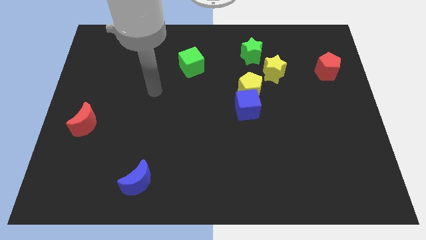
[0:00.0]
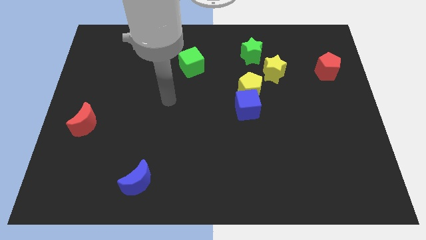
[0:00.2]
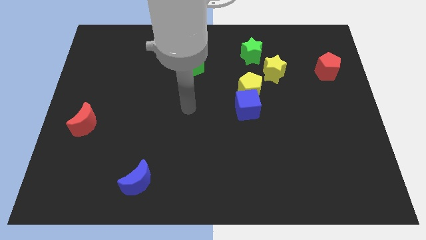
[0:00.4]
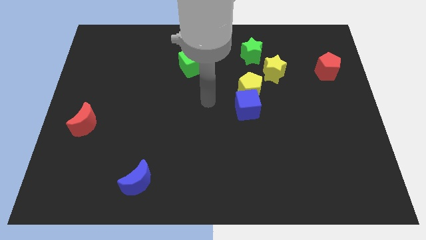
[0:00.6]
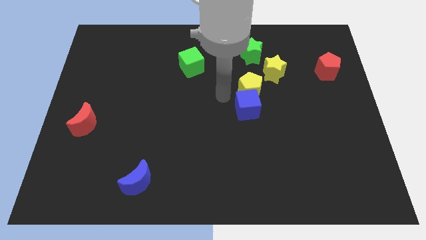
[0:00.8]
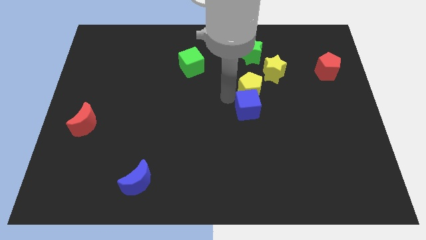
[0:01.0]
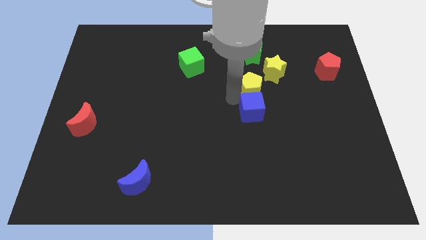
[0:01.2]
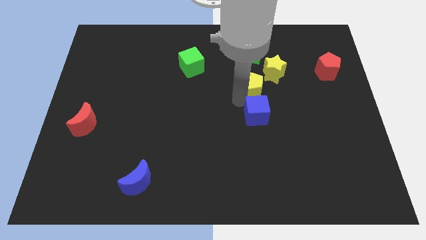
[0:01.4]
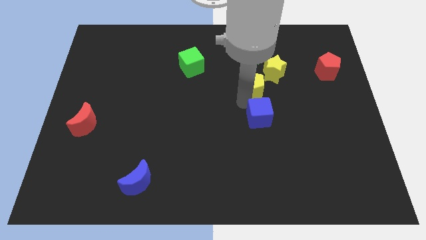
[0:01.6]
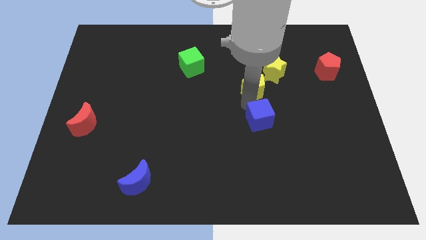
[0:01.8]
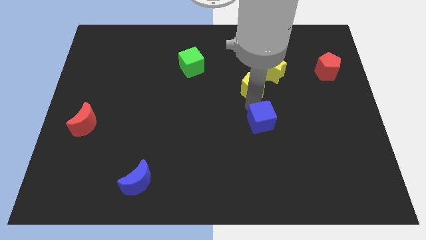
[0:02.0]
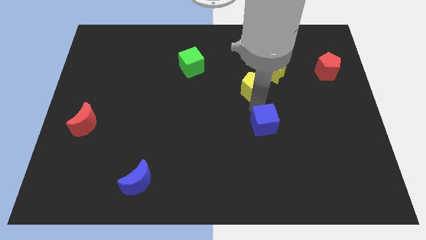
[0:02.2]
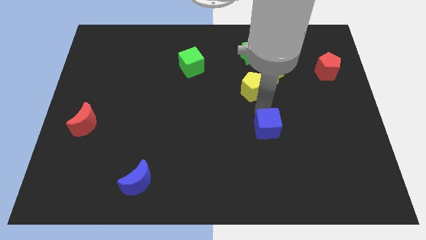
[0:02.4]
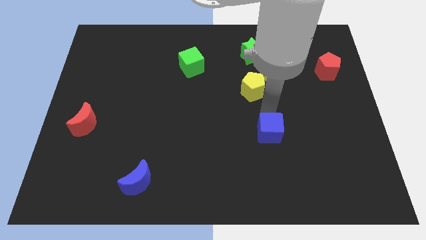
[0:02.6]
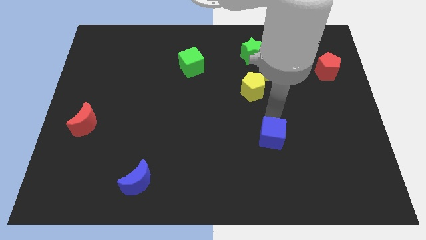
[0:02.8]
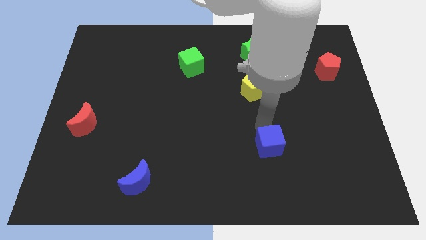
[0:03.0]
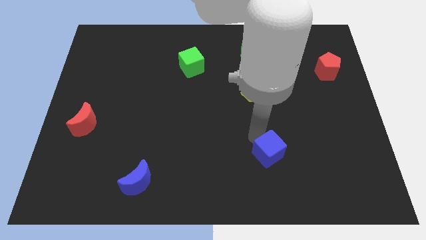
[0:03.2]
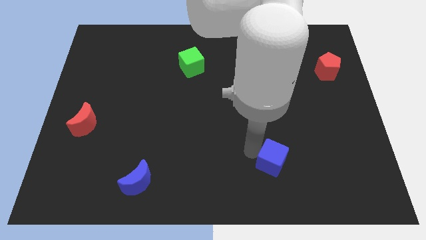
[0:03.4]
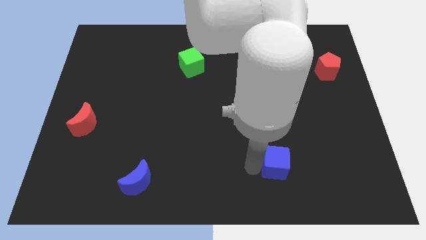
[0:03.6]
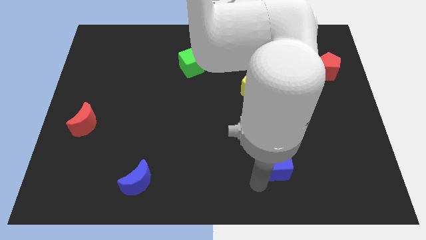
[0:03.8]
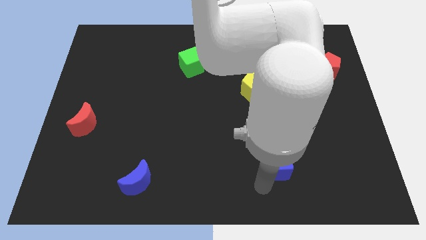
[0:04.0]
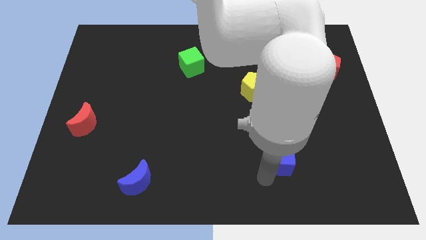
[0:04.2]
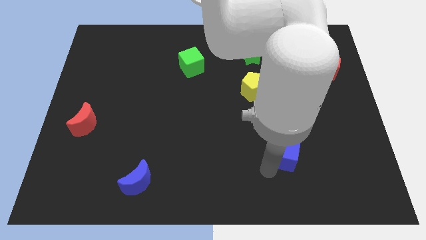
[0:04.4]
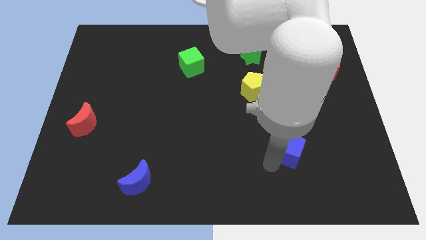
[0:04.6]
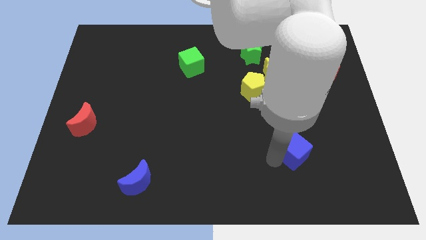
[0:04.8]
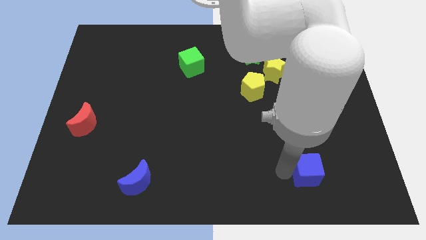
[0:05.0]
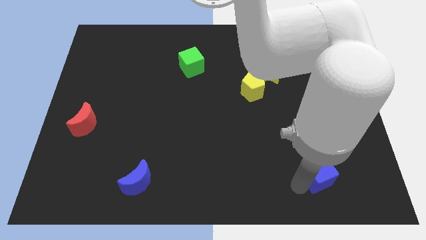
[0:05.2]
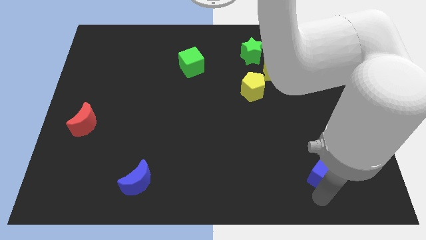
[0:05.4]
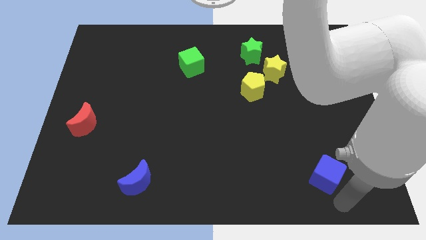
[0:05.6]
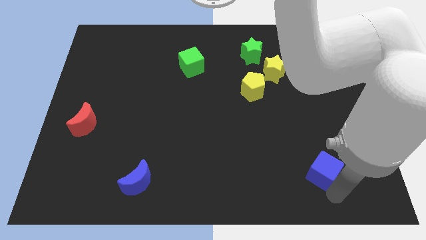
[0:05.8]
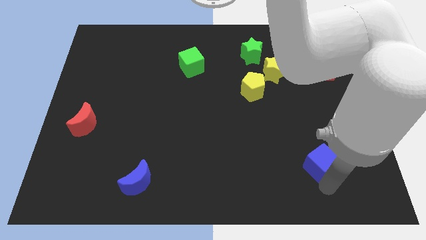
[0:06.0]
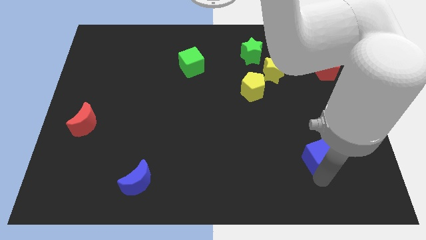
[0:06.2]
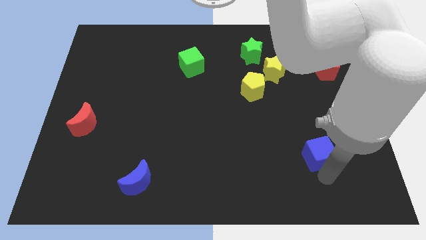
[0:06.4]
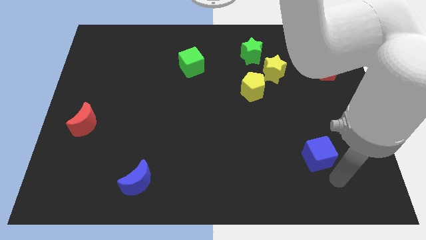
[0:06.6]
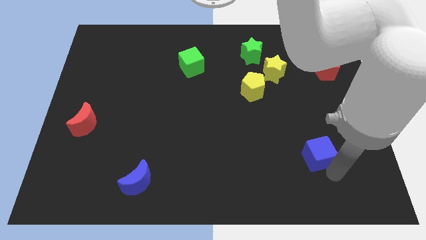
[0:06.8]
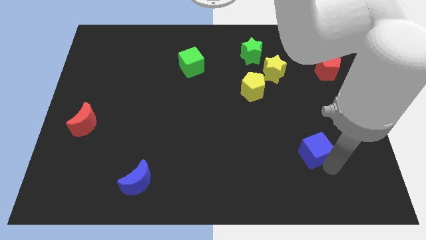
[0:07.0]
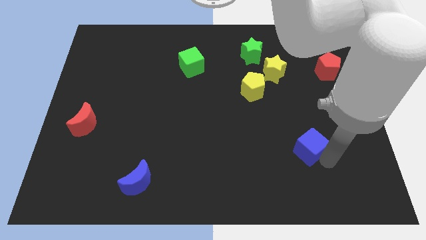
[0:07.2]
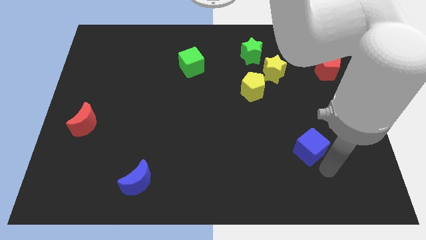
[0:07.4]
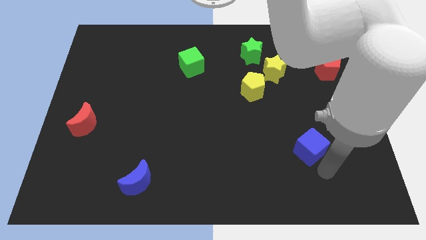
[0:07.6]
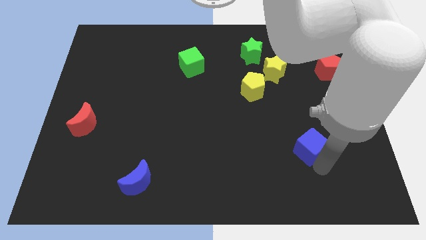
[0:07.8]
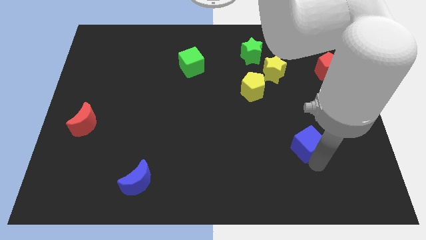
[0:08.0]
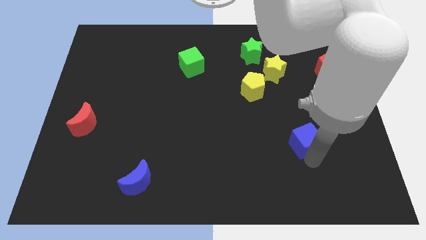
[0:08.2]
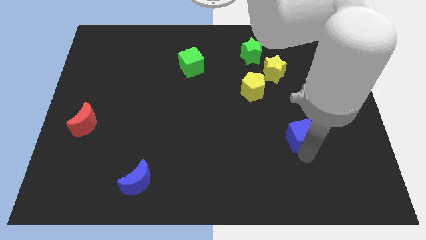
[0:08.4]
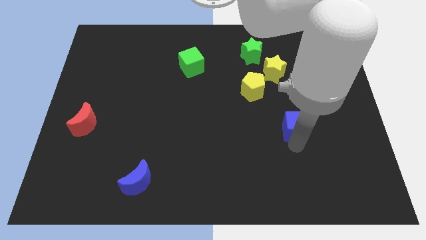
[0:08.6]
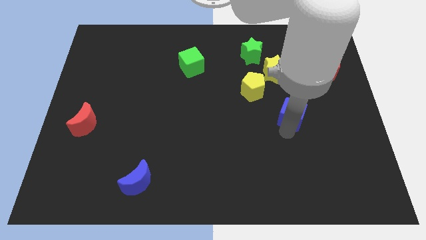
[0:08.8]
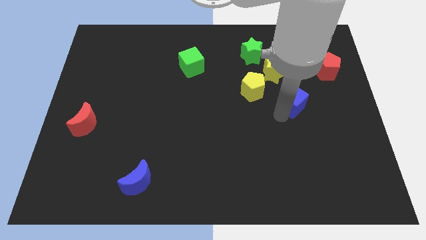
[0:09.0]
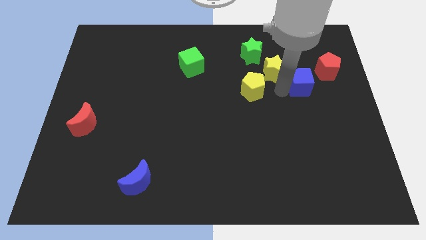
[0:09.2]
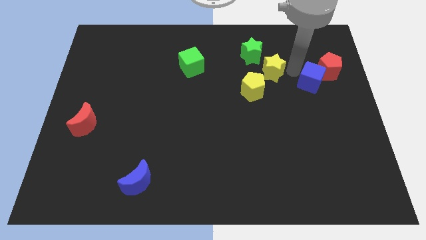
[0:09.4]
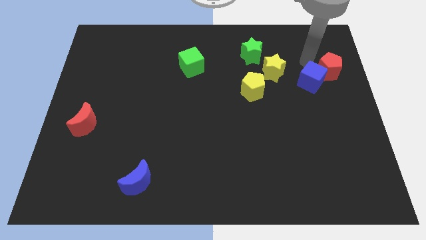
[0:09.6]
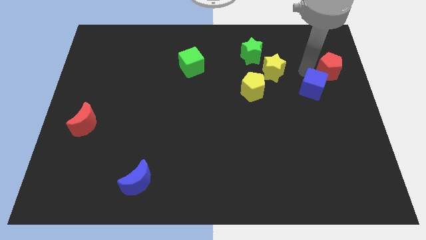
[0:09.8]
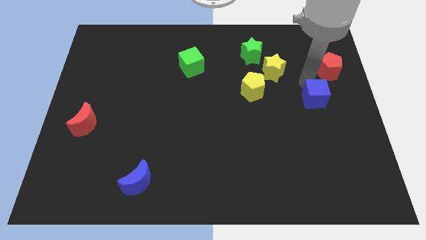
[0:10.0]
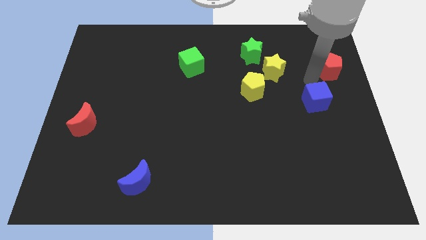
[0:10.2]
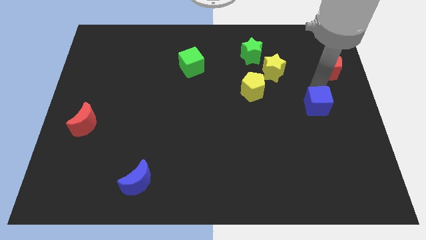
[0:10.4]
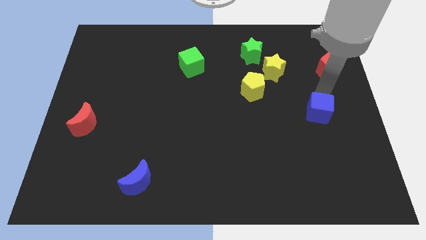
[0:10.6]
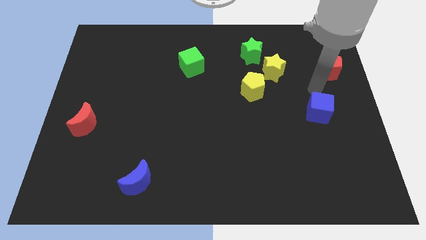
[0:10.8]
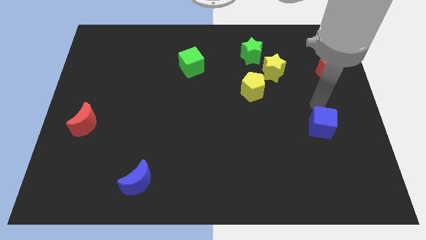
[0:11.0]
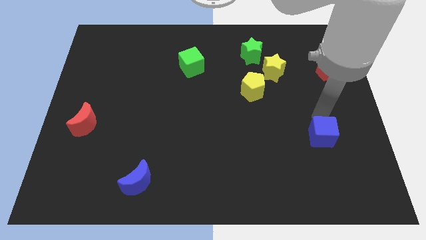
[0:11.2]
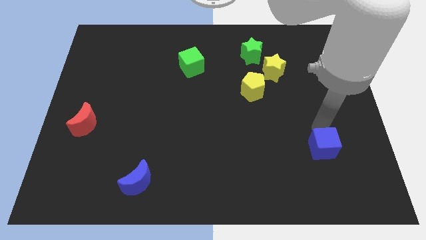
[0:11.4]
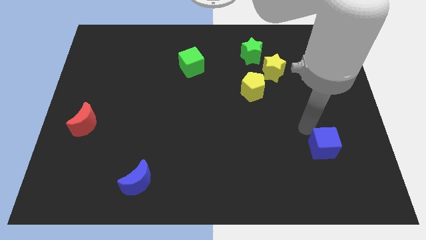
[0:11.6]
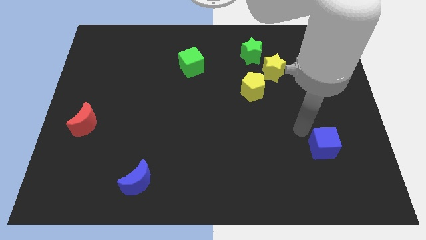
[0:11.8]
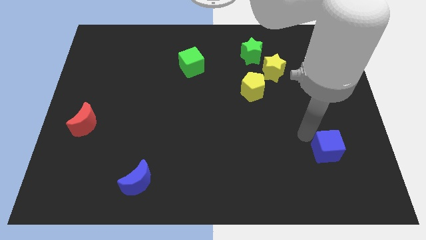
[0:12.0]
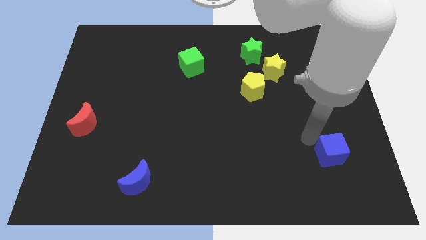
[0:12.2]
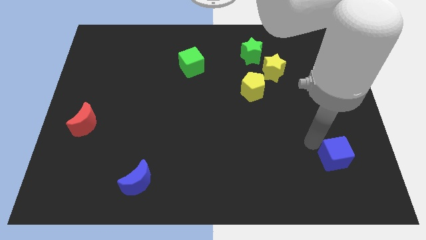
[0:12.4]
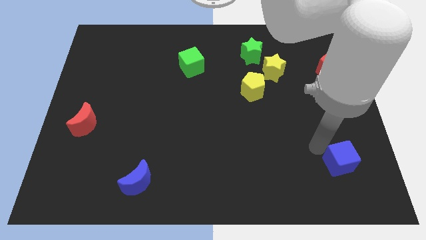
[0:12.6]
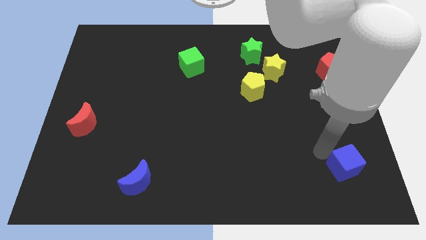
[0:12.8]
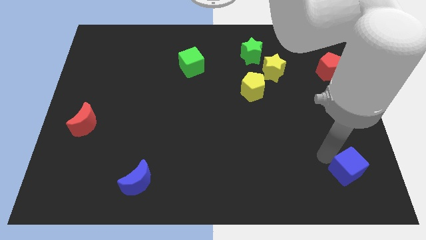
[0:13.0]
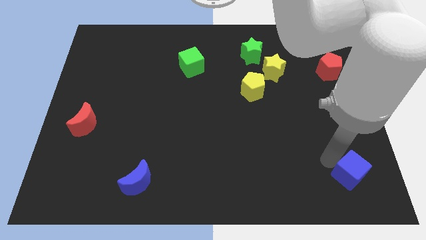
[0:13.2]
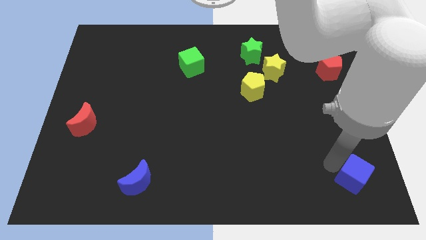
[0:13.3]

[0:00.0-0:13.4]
slide the blue cube to the bottom right
